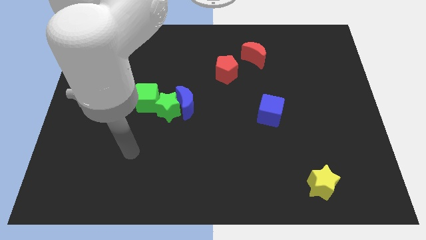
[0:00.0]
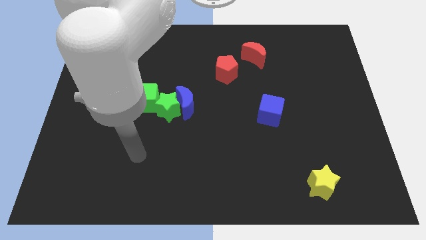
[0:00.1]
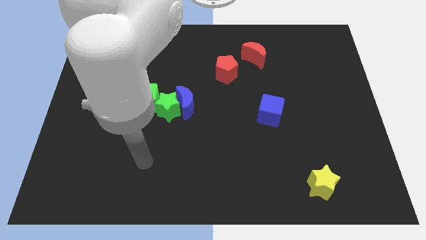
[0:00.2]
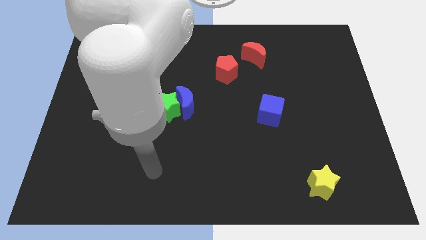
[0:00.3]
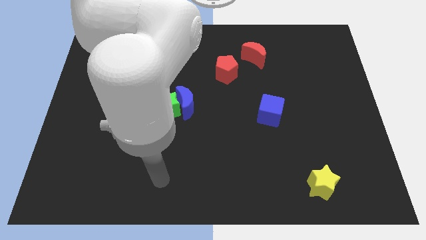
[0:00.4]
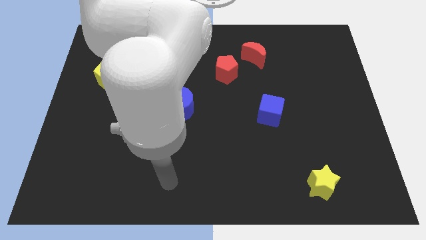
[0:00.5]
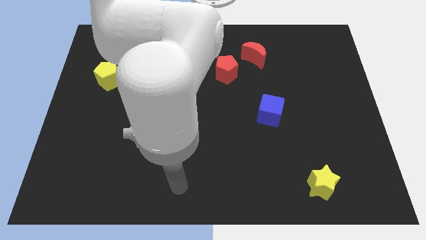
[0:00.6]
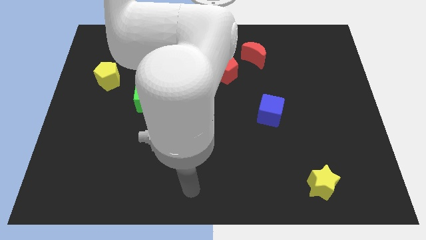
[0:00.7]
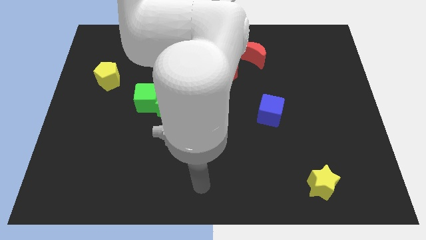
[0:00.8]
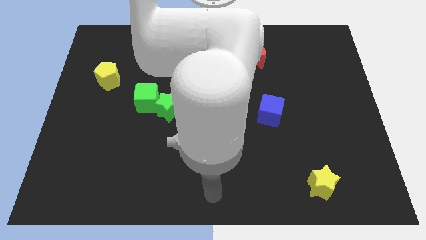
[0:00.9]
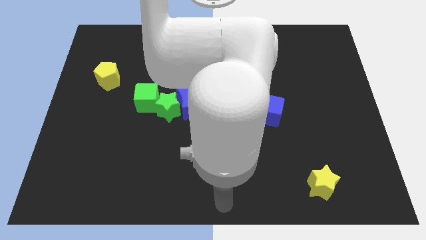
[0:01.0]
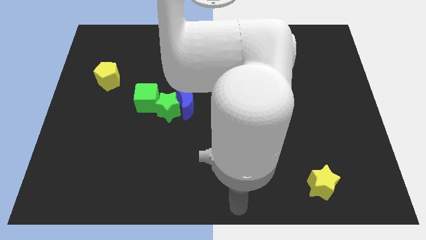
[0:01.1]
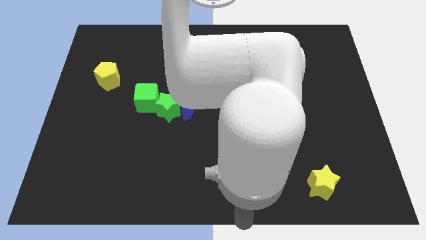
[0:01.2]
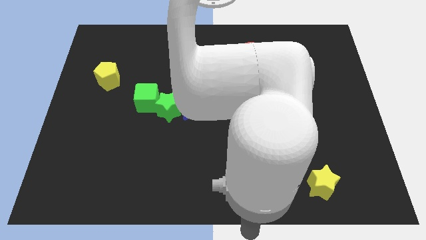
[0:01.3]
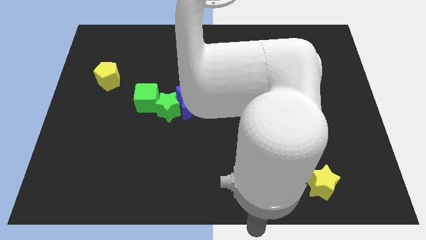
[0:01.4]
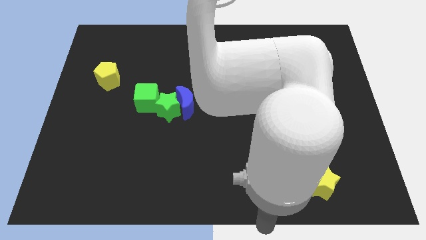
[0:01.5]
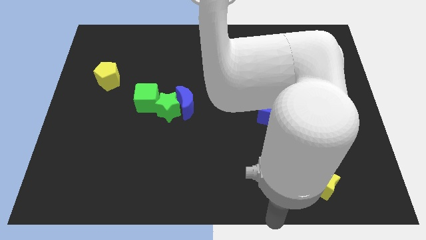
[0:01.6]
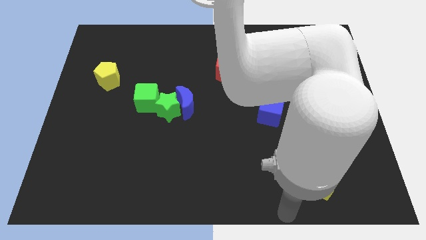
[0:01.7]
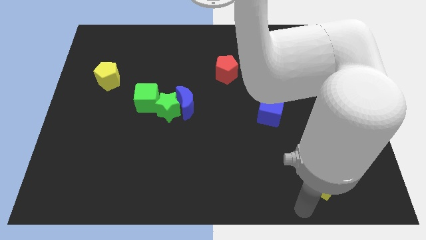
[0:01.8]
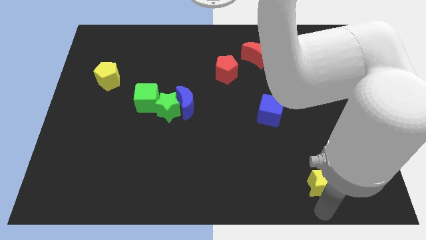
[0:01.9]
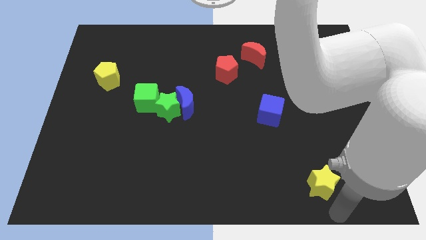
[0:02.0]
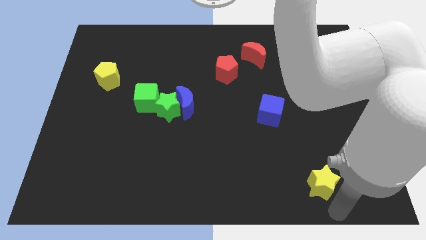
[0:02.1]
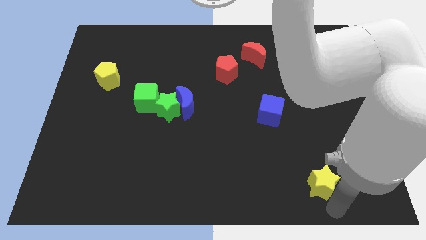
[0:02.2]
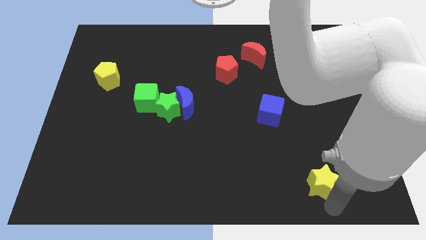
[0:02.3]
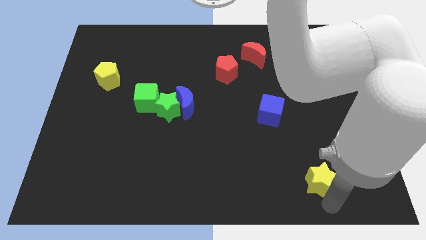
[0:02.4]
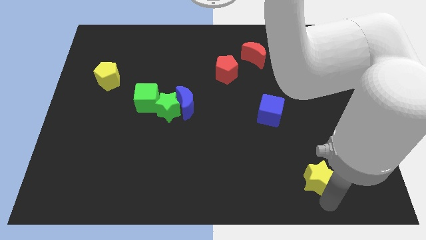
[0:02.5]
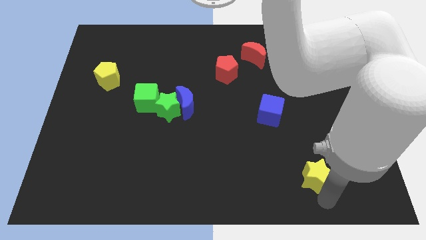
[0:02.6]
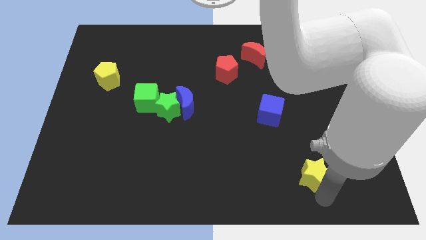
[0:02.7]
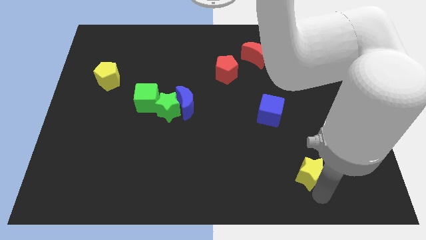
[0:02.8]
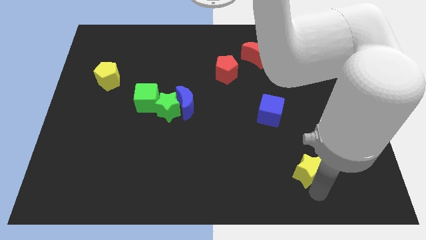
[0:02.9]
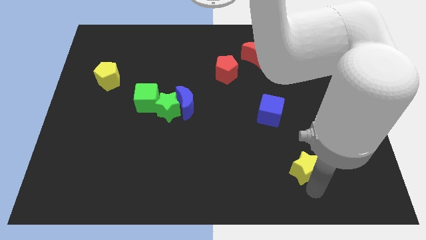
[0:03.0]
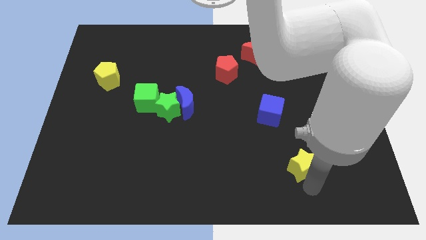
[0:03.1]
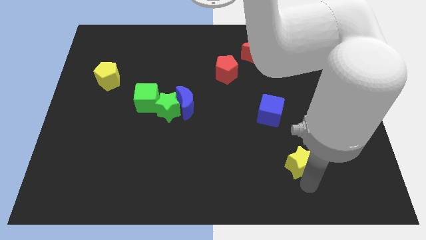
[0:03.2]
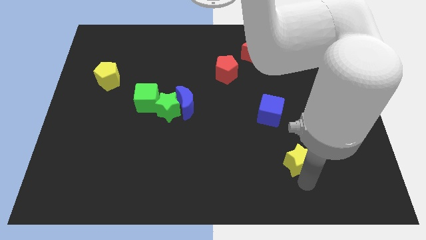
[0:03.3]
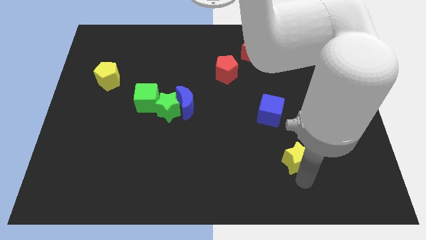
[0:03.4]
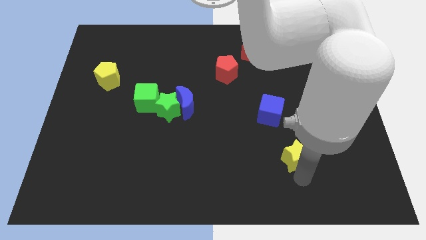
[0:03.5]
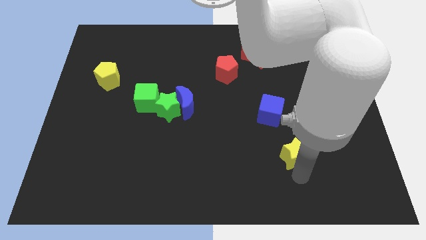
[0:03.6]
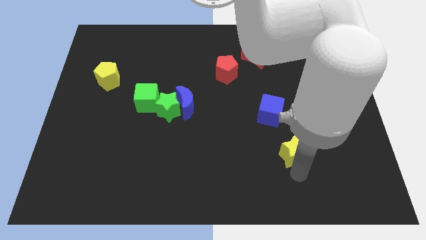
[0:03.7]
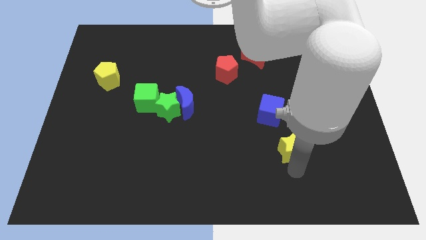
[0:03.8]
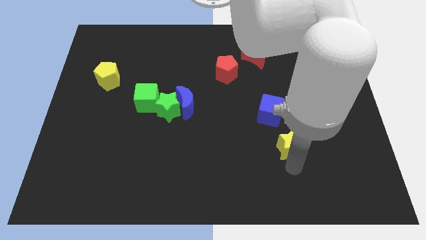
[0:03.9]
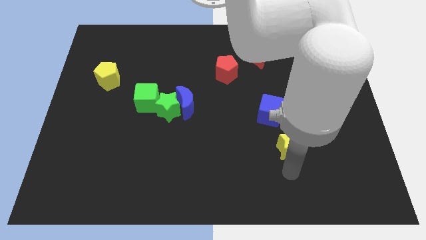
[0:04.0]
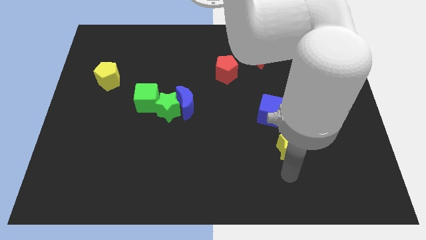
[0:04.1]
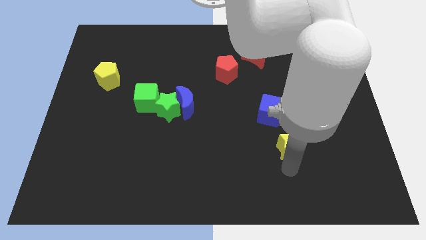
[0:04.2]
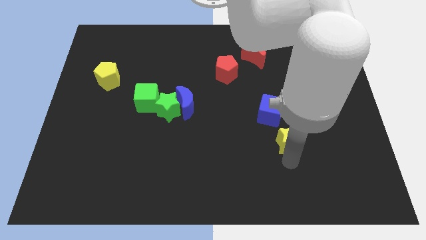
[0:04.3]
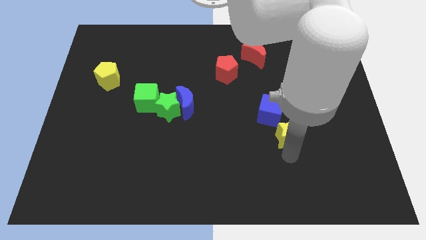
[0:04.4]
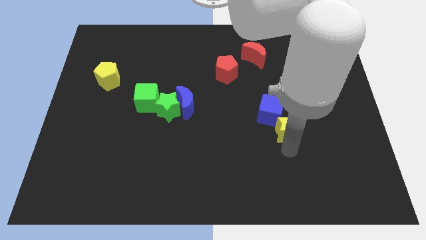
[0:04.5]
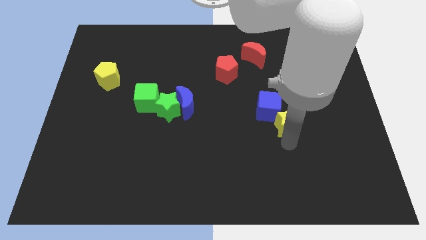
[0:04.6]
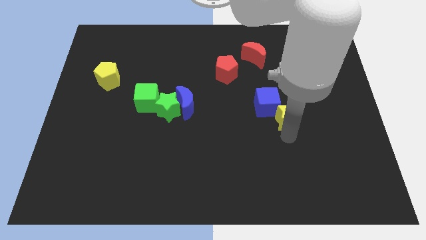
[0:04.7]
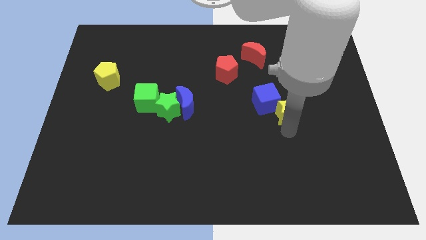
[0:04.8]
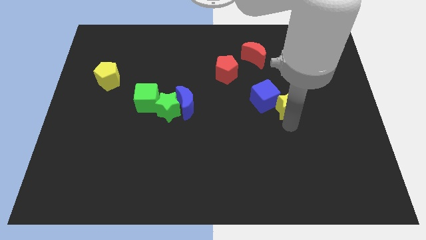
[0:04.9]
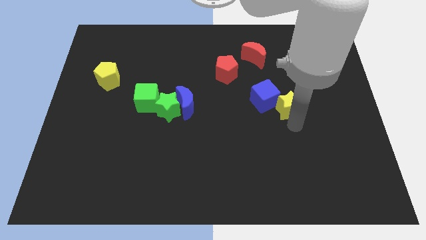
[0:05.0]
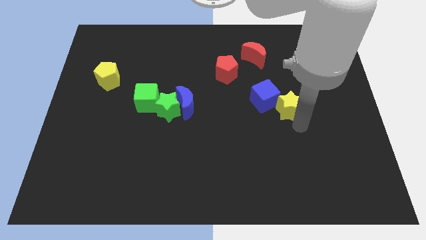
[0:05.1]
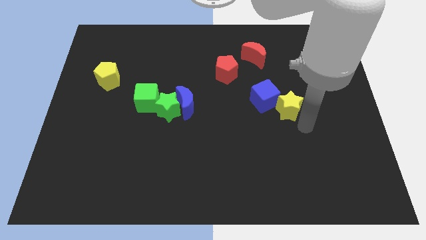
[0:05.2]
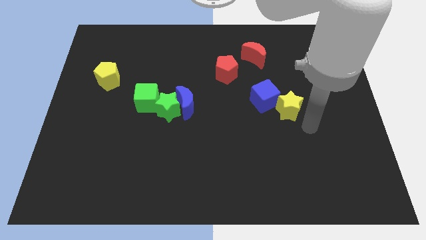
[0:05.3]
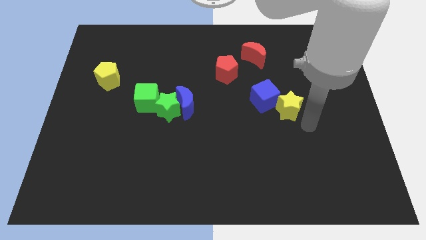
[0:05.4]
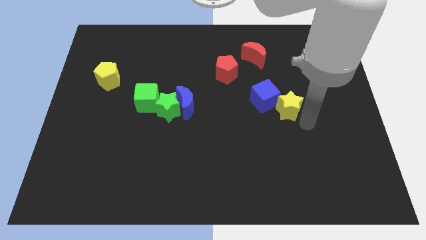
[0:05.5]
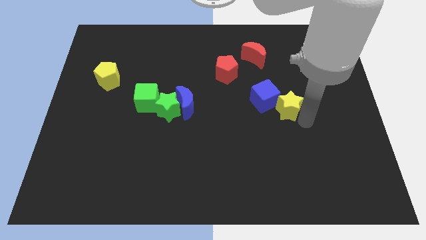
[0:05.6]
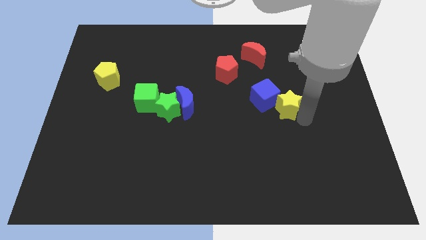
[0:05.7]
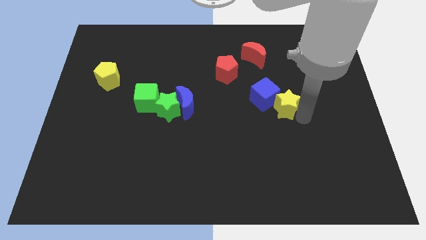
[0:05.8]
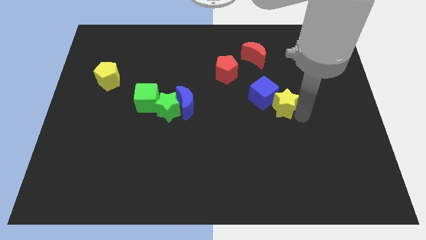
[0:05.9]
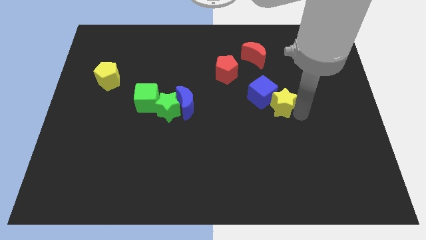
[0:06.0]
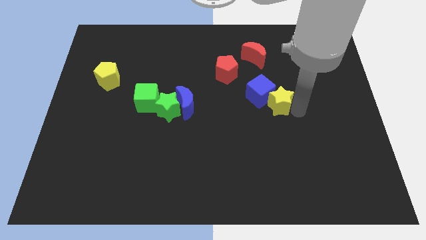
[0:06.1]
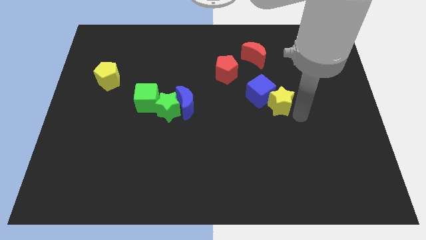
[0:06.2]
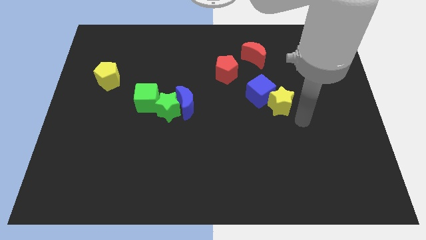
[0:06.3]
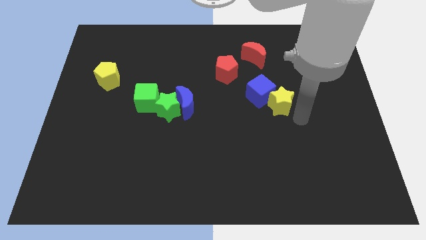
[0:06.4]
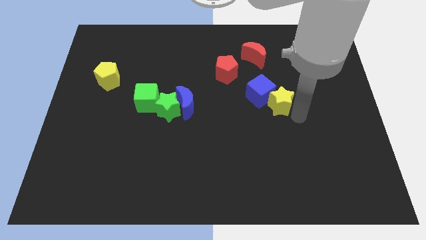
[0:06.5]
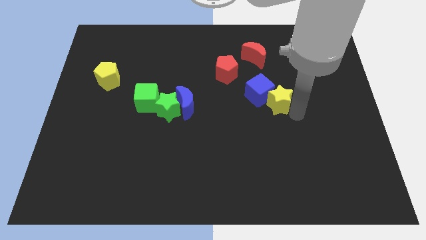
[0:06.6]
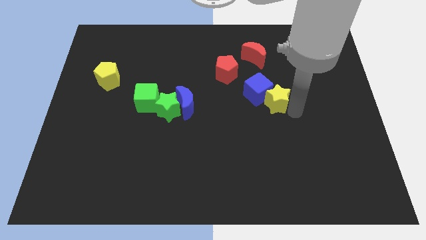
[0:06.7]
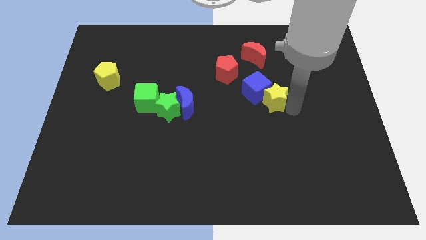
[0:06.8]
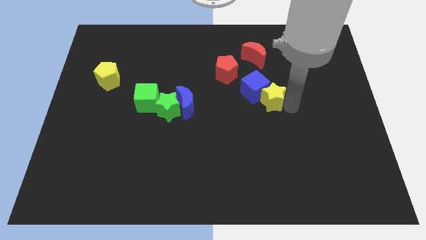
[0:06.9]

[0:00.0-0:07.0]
move the yellow star to the bottom side of the red moon

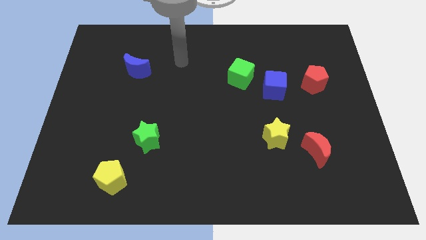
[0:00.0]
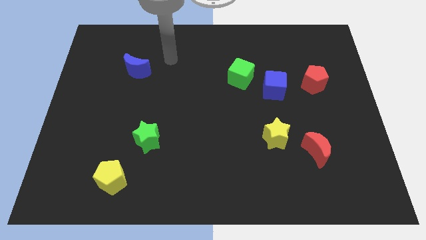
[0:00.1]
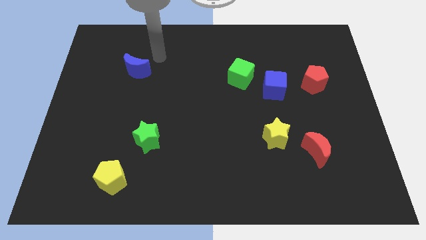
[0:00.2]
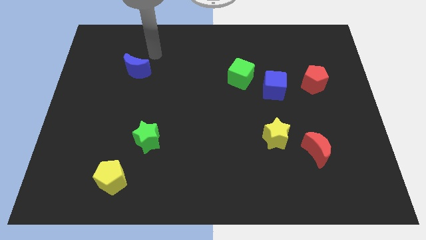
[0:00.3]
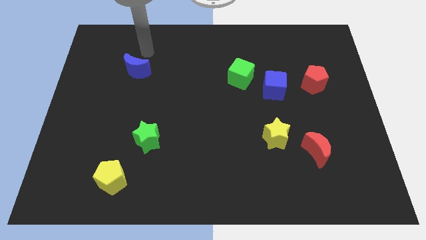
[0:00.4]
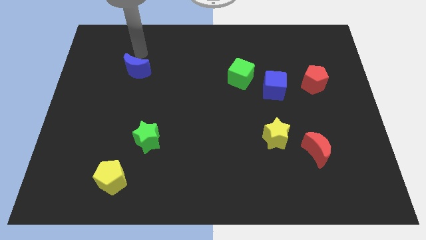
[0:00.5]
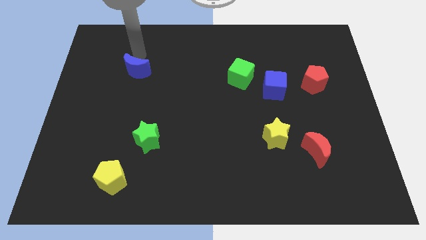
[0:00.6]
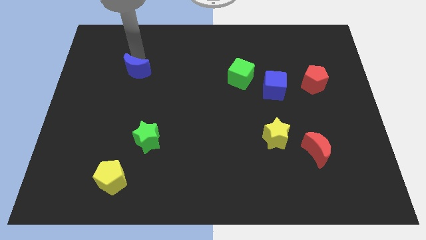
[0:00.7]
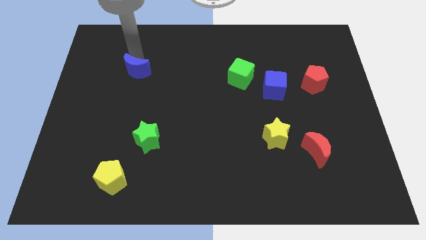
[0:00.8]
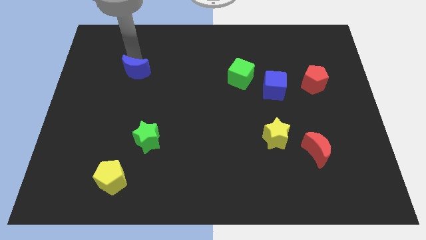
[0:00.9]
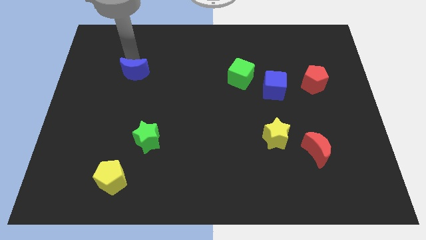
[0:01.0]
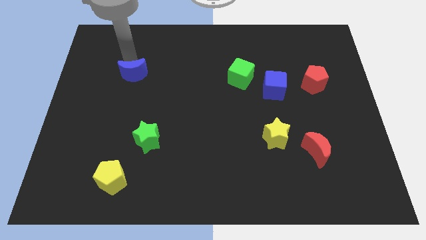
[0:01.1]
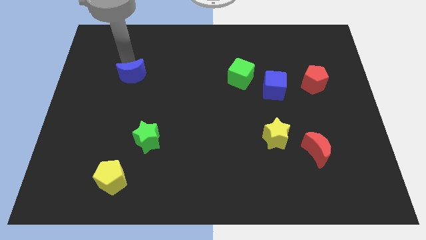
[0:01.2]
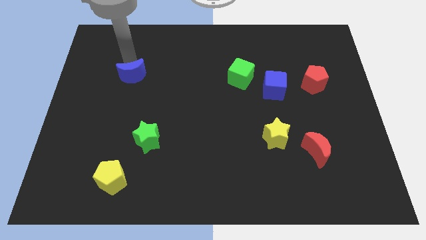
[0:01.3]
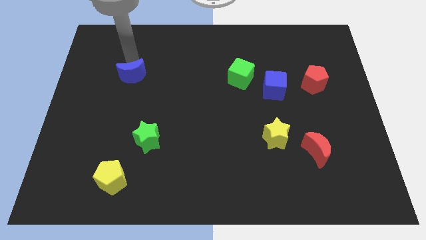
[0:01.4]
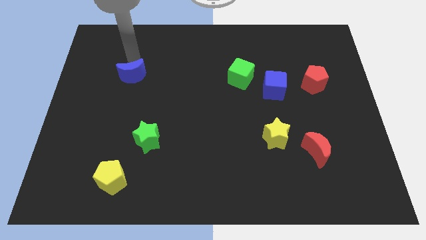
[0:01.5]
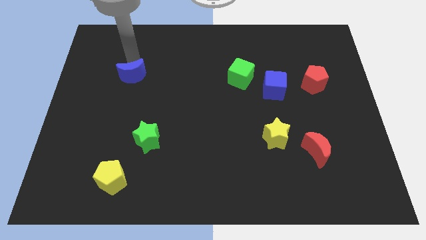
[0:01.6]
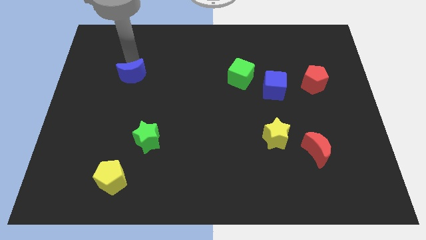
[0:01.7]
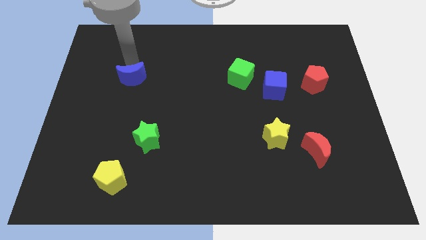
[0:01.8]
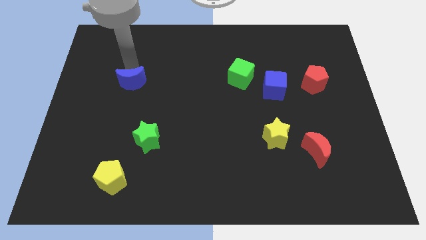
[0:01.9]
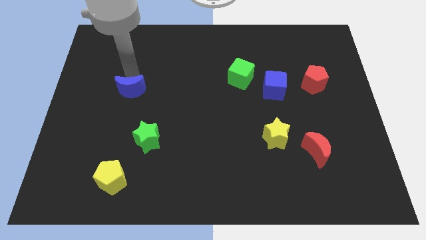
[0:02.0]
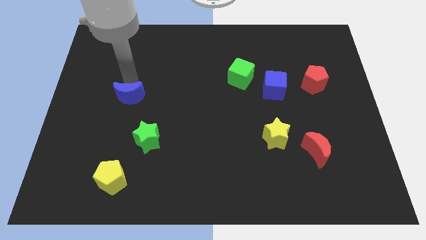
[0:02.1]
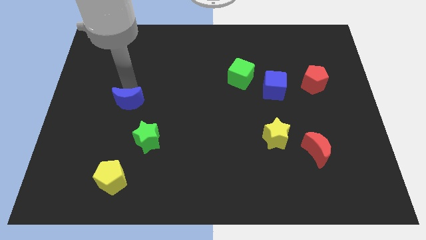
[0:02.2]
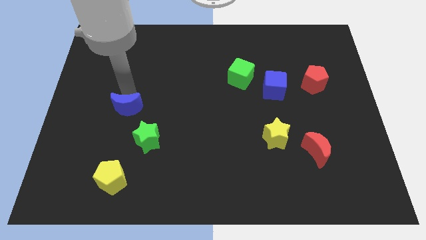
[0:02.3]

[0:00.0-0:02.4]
push the blue moon diagonally up and to the left of the green star
